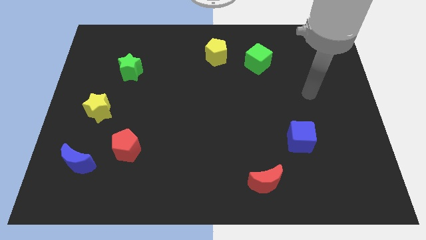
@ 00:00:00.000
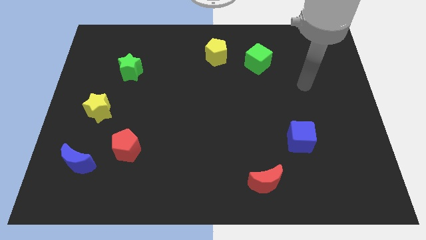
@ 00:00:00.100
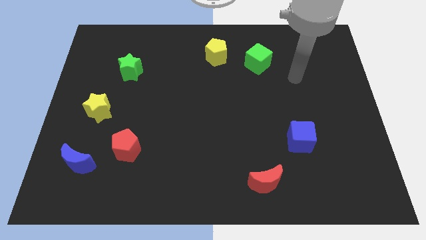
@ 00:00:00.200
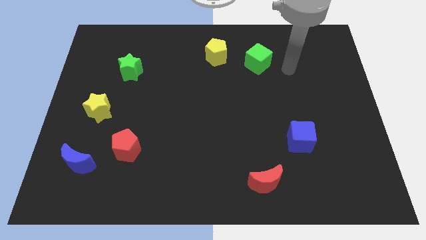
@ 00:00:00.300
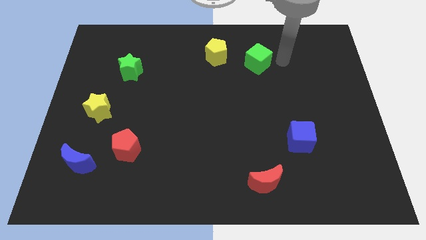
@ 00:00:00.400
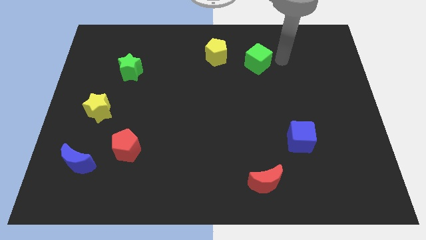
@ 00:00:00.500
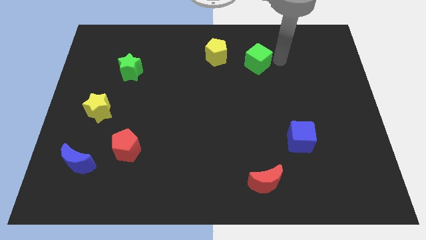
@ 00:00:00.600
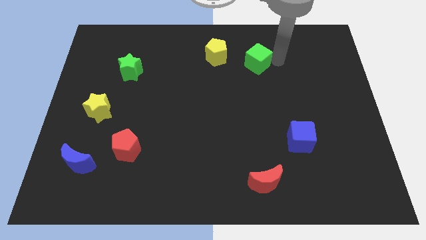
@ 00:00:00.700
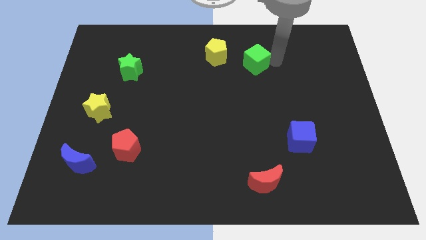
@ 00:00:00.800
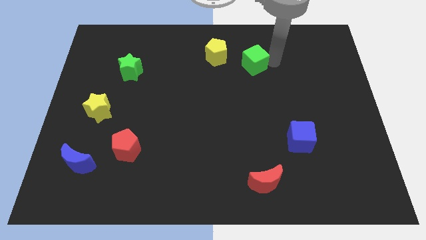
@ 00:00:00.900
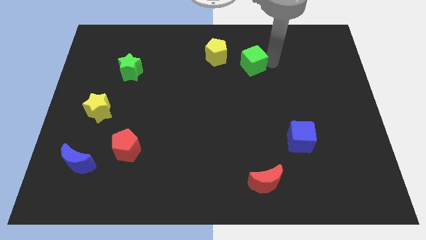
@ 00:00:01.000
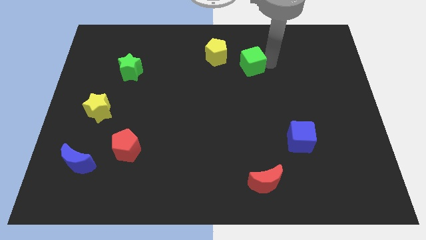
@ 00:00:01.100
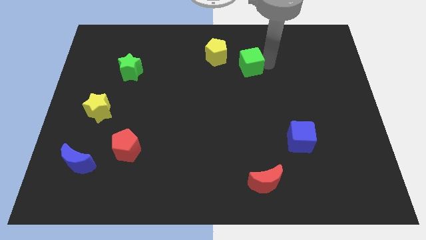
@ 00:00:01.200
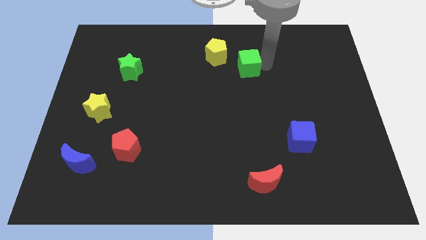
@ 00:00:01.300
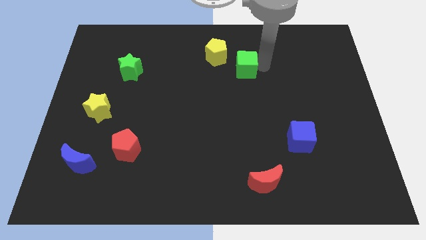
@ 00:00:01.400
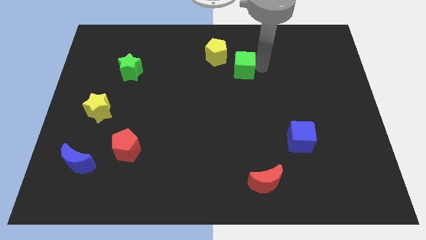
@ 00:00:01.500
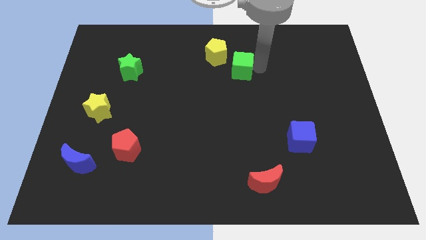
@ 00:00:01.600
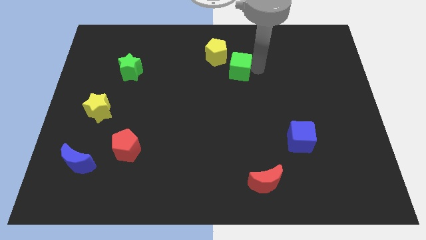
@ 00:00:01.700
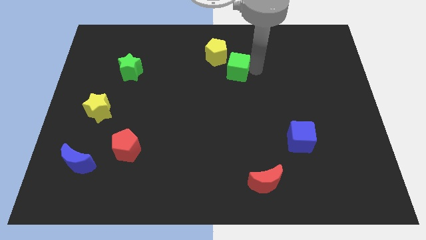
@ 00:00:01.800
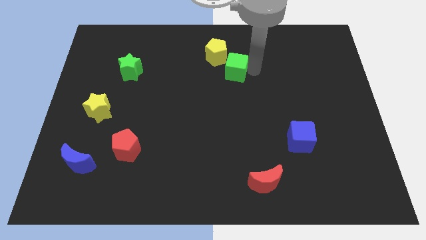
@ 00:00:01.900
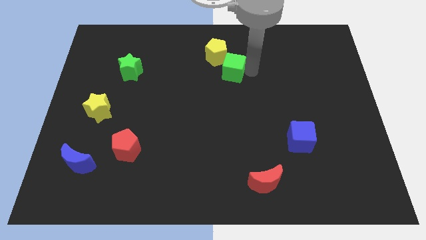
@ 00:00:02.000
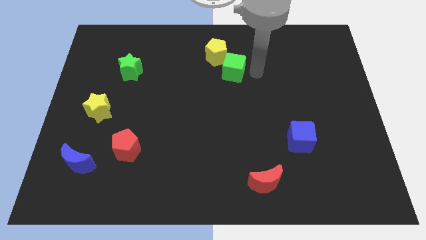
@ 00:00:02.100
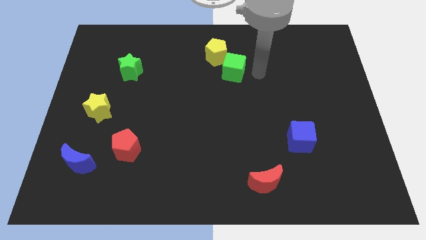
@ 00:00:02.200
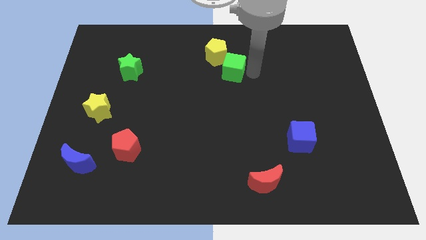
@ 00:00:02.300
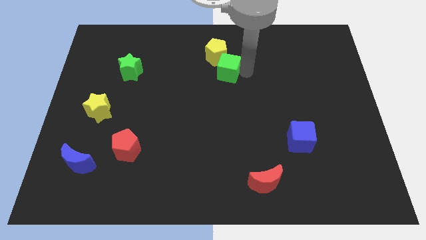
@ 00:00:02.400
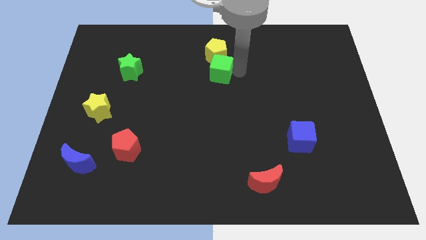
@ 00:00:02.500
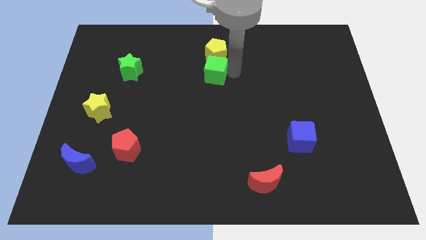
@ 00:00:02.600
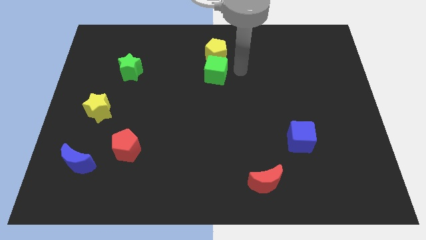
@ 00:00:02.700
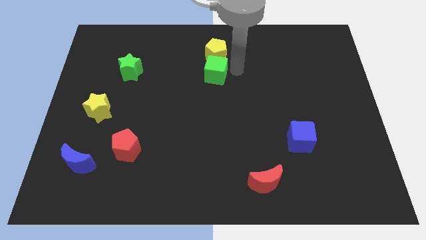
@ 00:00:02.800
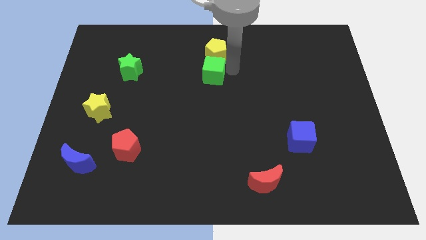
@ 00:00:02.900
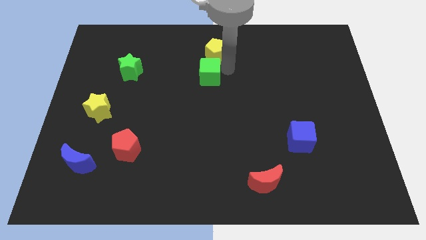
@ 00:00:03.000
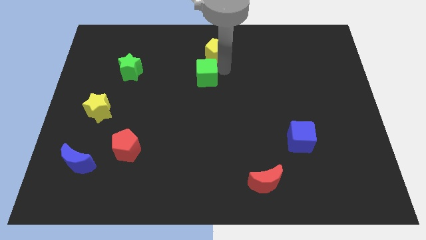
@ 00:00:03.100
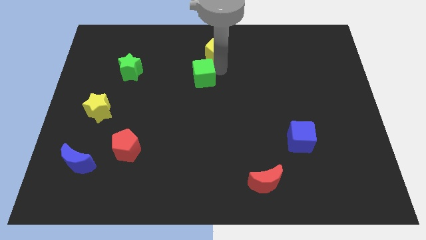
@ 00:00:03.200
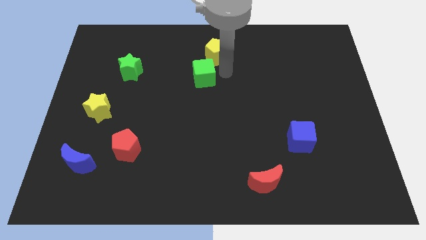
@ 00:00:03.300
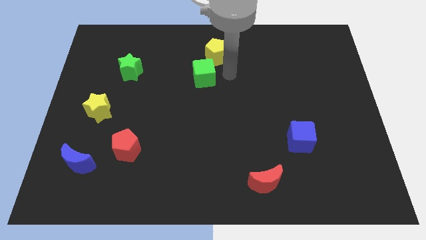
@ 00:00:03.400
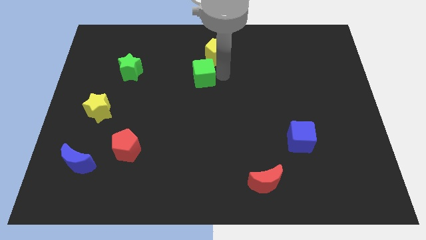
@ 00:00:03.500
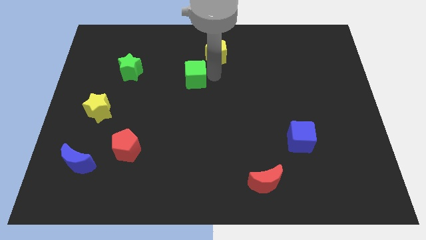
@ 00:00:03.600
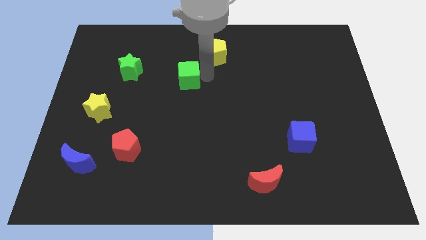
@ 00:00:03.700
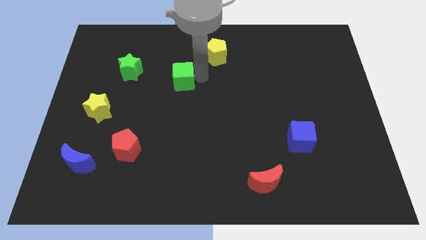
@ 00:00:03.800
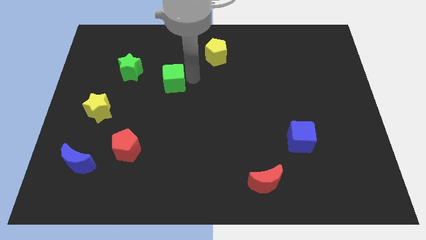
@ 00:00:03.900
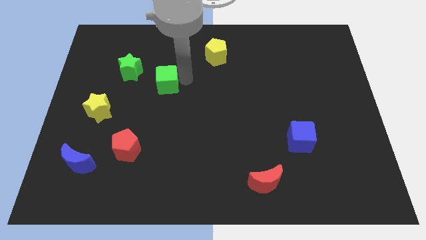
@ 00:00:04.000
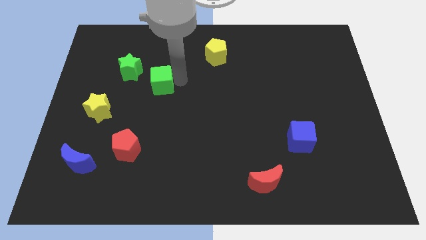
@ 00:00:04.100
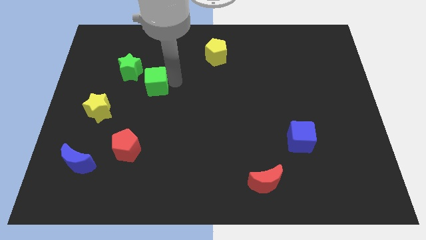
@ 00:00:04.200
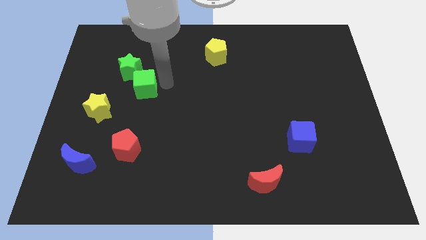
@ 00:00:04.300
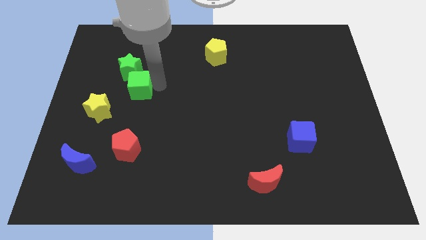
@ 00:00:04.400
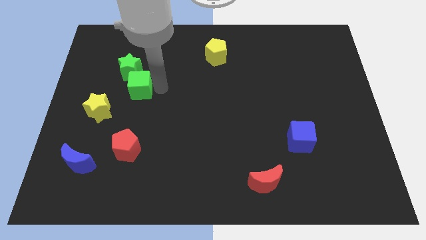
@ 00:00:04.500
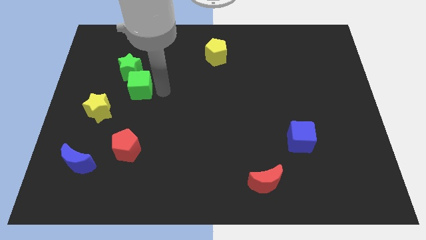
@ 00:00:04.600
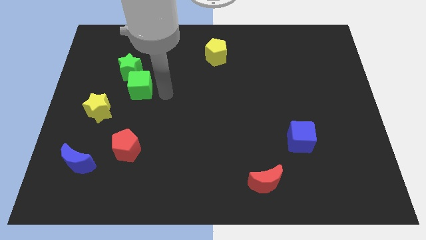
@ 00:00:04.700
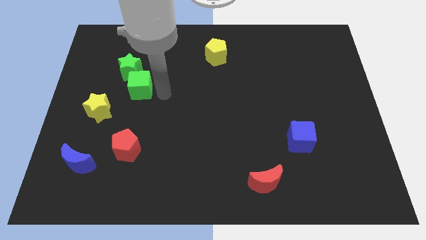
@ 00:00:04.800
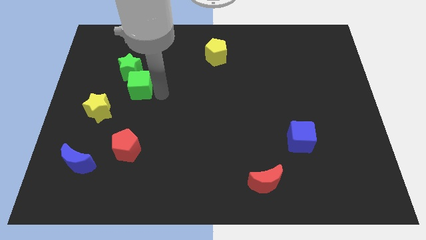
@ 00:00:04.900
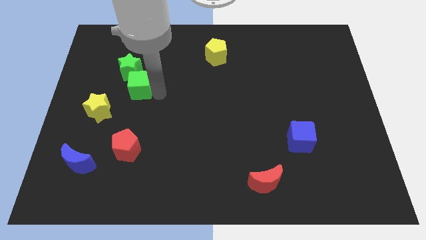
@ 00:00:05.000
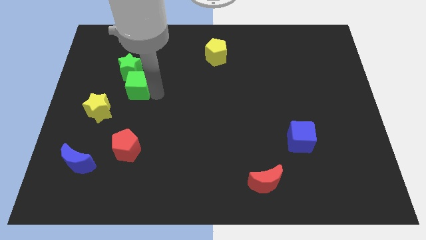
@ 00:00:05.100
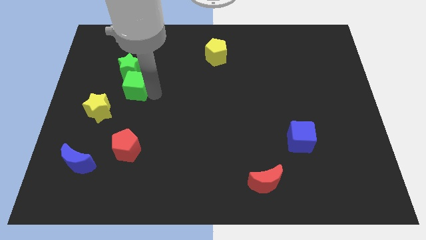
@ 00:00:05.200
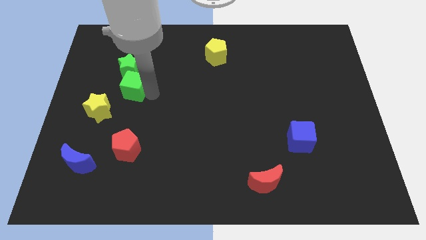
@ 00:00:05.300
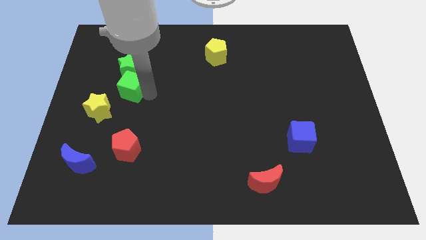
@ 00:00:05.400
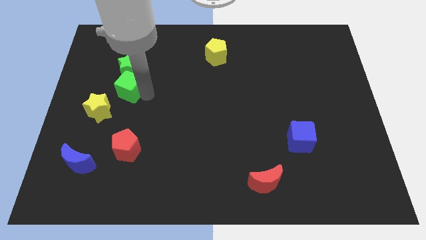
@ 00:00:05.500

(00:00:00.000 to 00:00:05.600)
put the green cube to the bottom left side of the green star

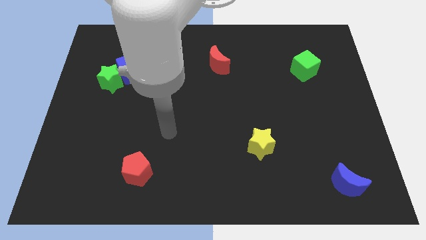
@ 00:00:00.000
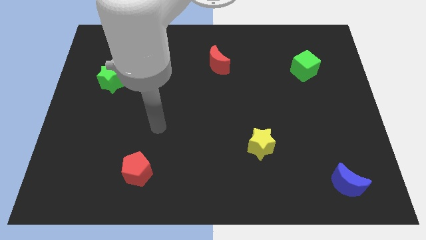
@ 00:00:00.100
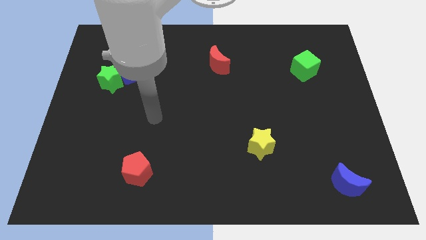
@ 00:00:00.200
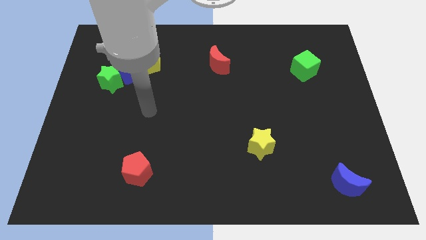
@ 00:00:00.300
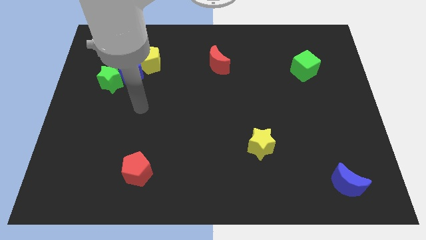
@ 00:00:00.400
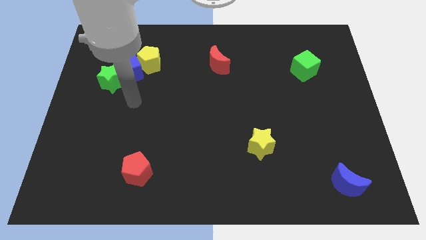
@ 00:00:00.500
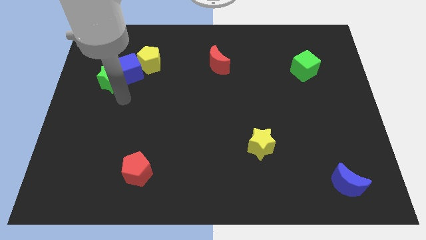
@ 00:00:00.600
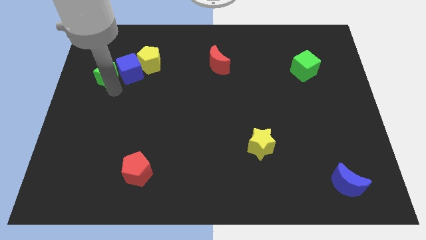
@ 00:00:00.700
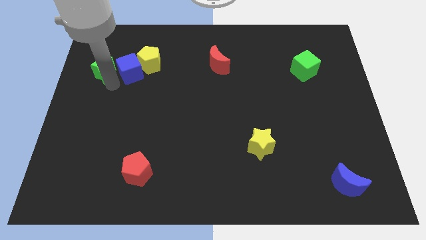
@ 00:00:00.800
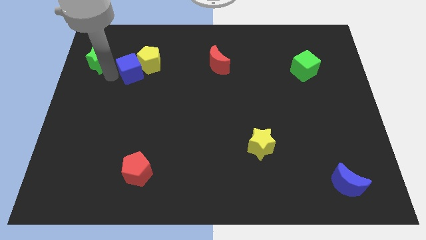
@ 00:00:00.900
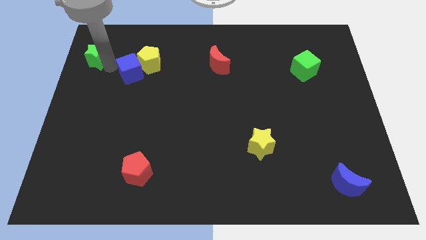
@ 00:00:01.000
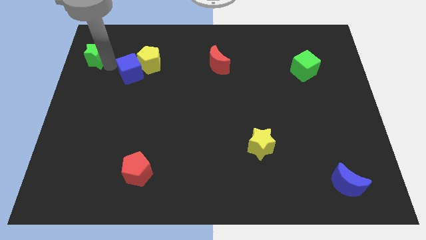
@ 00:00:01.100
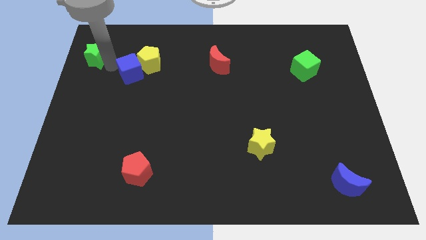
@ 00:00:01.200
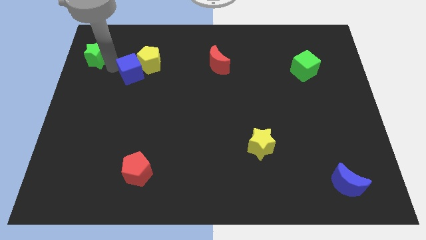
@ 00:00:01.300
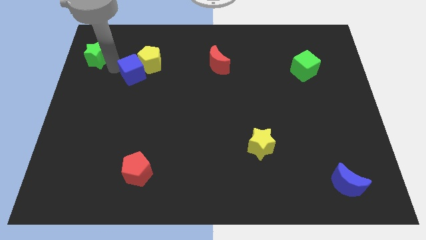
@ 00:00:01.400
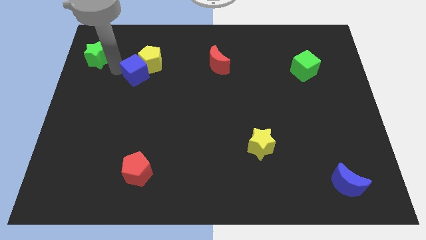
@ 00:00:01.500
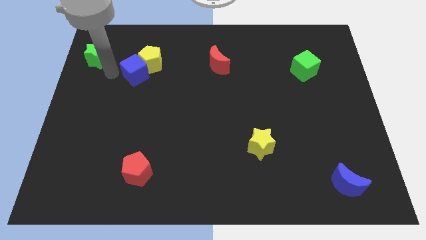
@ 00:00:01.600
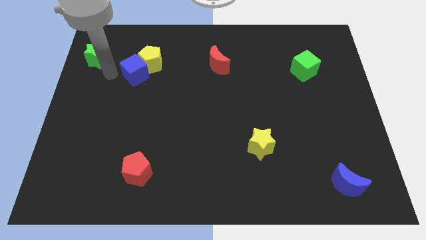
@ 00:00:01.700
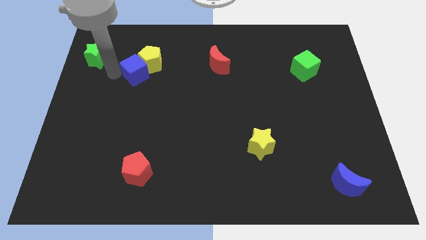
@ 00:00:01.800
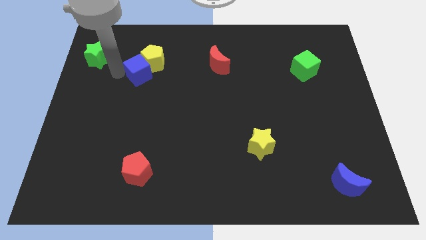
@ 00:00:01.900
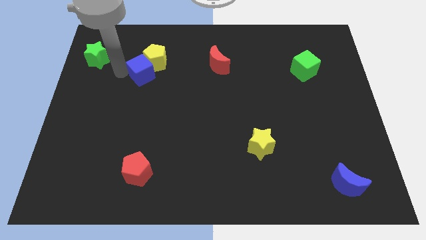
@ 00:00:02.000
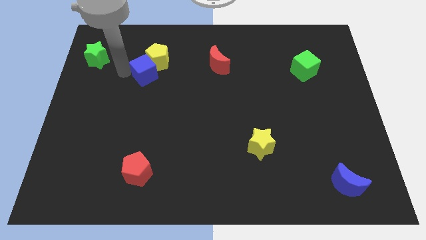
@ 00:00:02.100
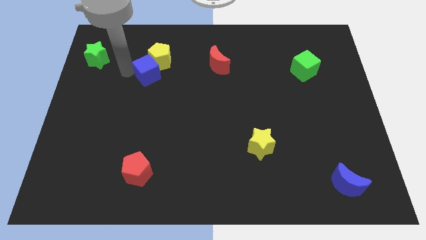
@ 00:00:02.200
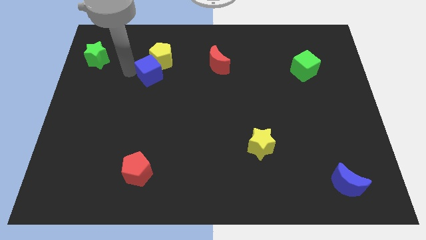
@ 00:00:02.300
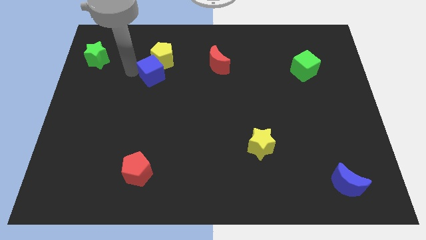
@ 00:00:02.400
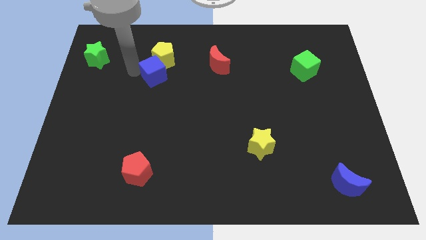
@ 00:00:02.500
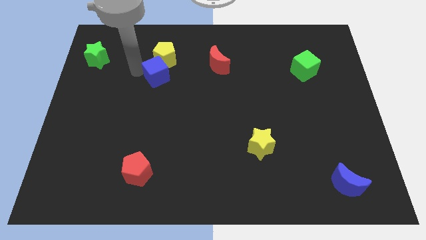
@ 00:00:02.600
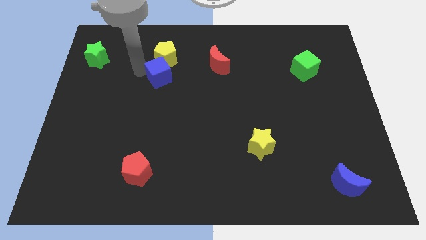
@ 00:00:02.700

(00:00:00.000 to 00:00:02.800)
push the blue cube just left of the red moon
